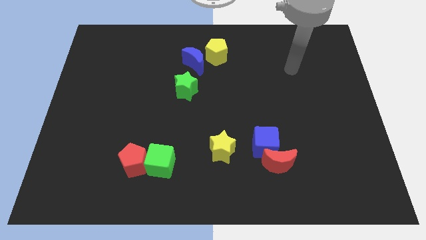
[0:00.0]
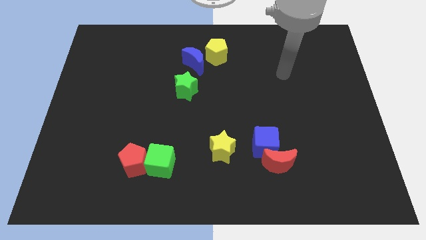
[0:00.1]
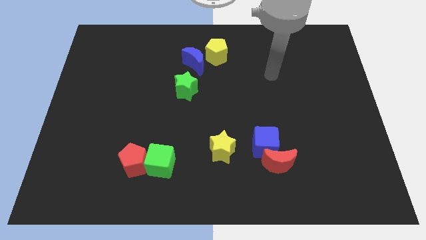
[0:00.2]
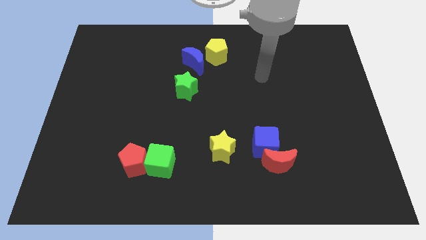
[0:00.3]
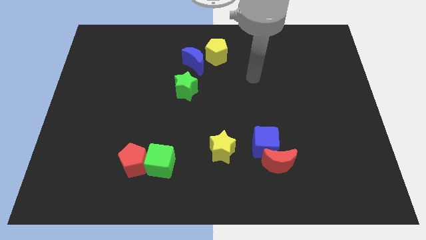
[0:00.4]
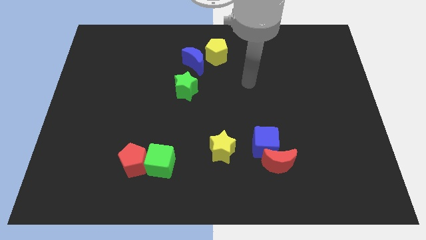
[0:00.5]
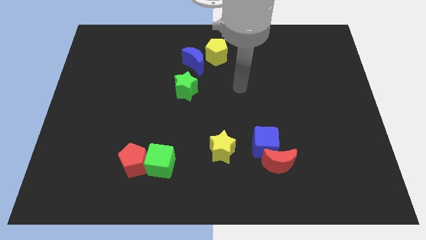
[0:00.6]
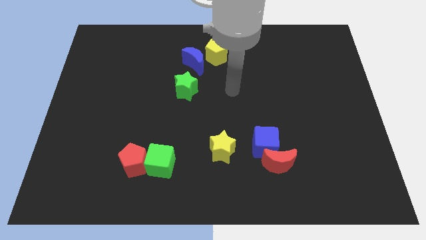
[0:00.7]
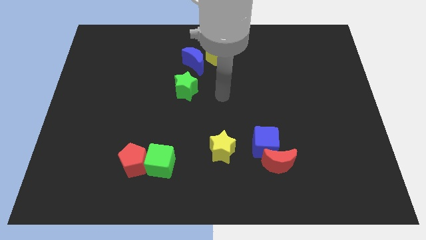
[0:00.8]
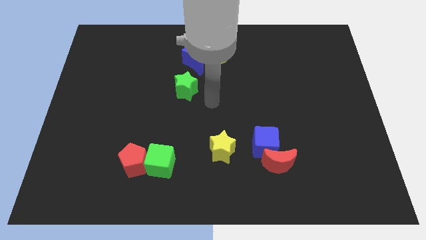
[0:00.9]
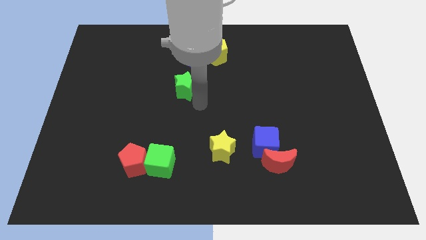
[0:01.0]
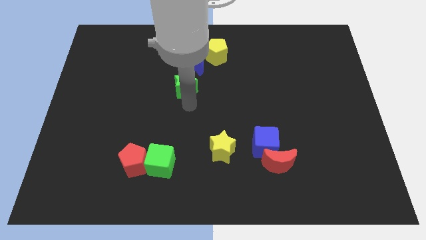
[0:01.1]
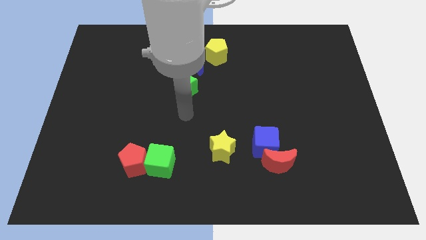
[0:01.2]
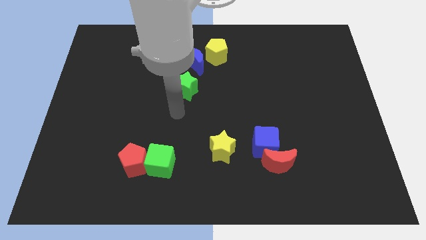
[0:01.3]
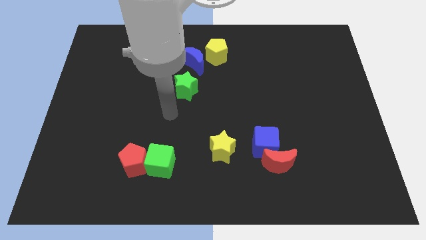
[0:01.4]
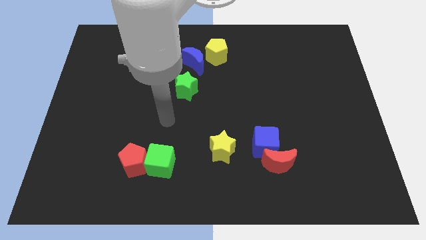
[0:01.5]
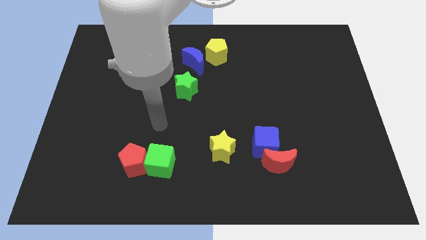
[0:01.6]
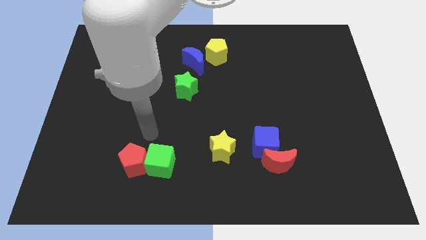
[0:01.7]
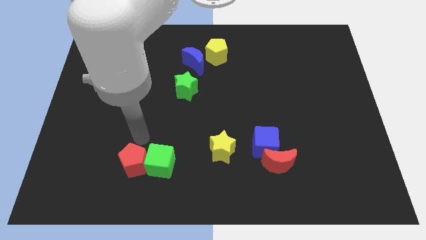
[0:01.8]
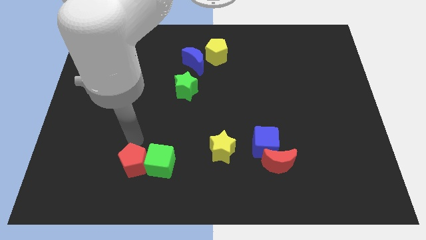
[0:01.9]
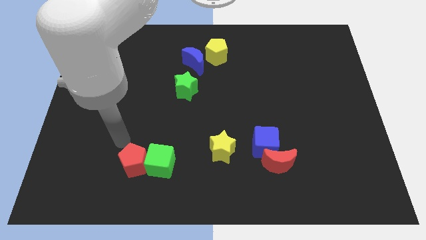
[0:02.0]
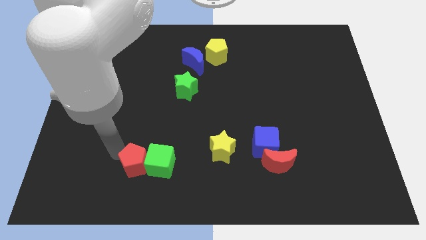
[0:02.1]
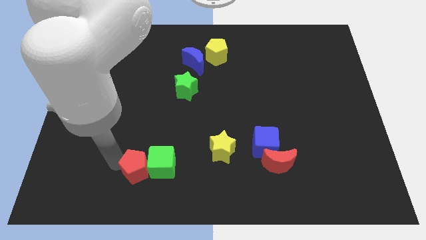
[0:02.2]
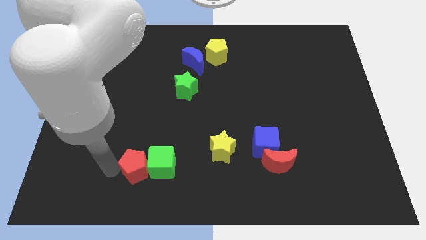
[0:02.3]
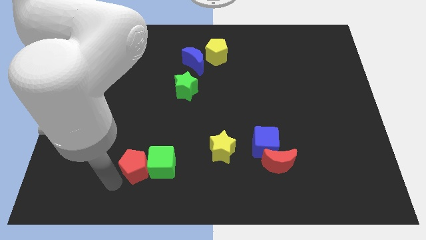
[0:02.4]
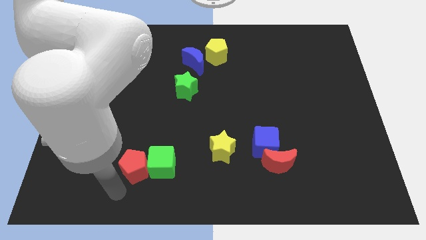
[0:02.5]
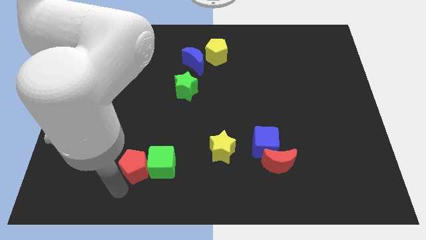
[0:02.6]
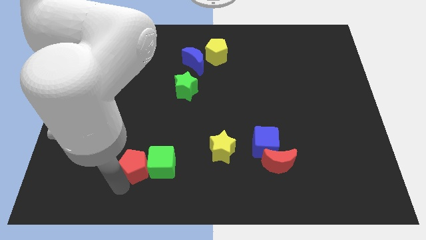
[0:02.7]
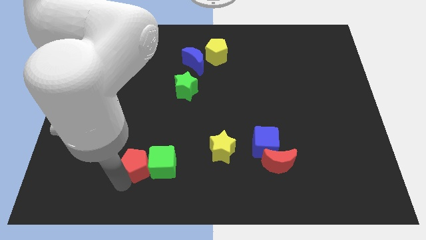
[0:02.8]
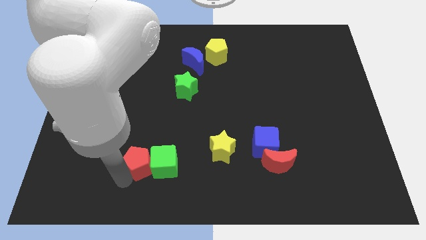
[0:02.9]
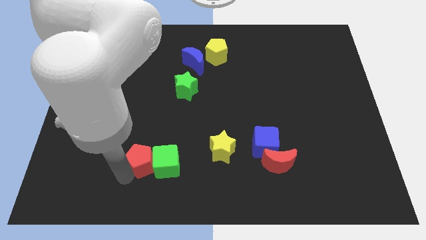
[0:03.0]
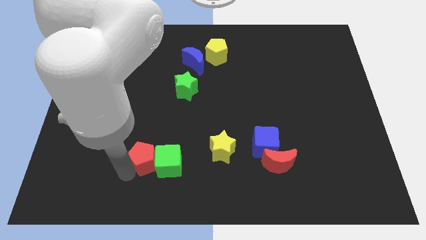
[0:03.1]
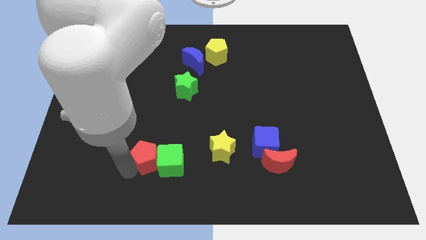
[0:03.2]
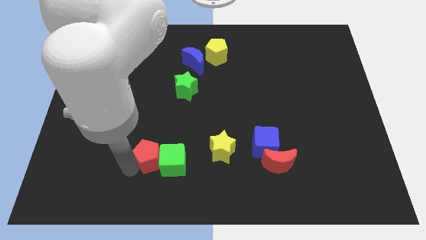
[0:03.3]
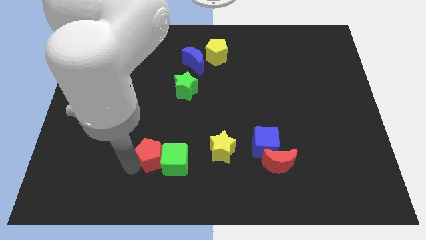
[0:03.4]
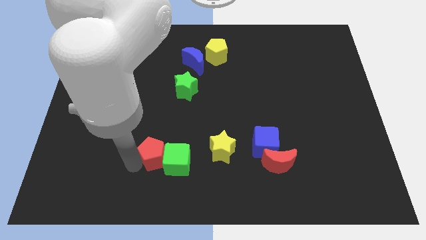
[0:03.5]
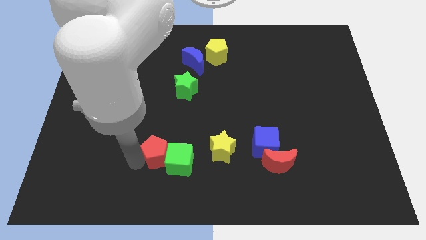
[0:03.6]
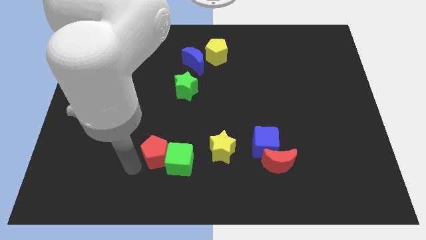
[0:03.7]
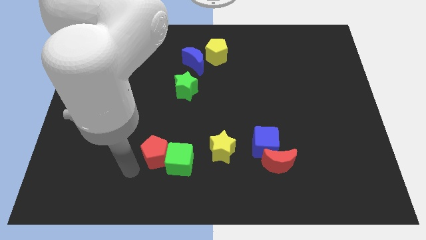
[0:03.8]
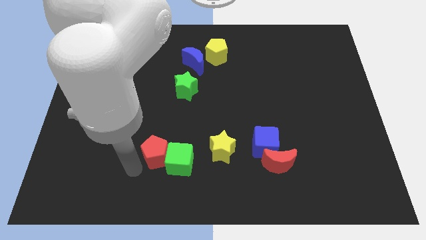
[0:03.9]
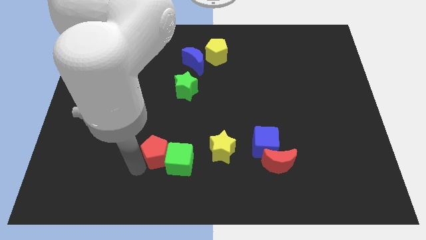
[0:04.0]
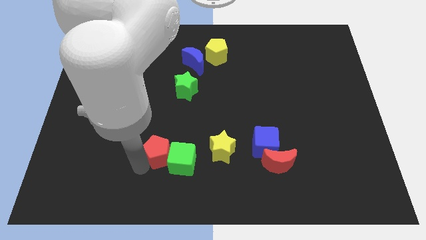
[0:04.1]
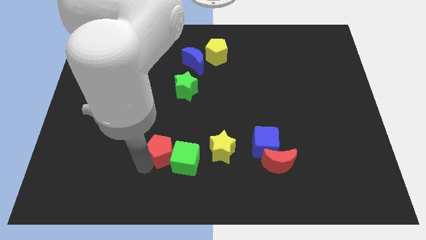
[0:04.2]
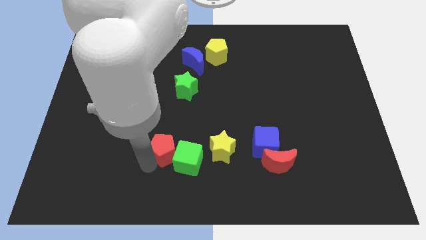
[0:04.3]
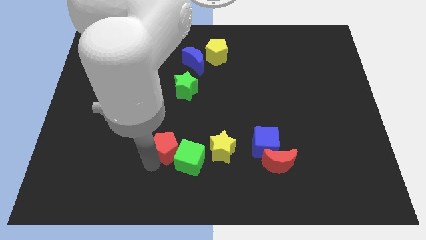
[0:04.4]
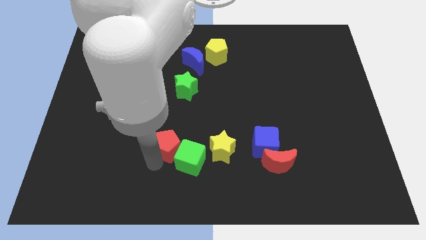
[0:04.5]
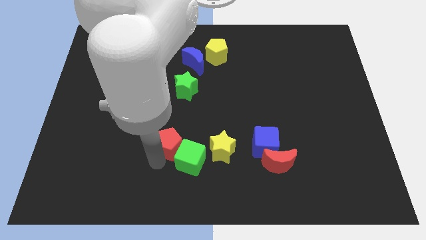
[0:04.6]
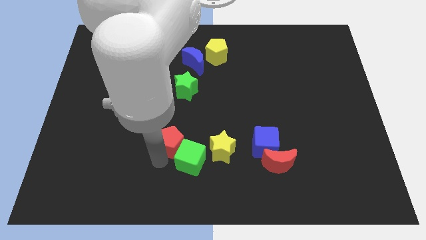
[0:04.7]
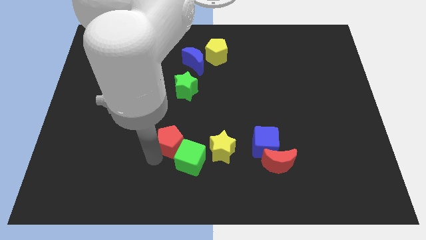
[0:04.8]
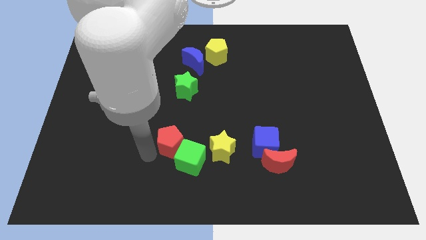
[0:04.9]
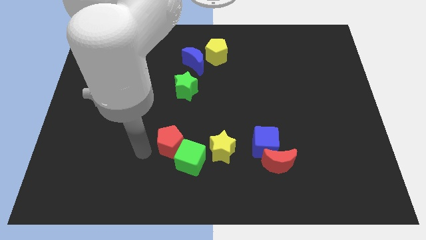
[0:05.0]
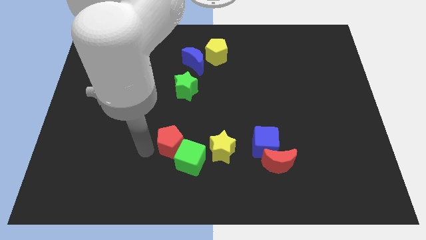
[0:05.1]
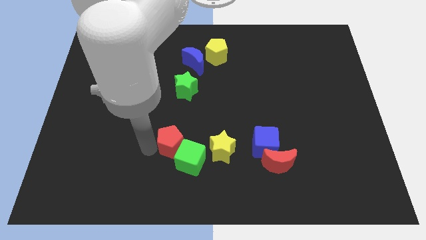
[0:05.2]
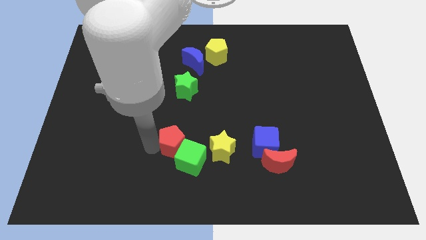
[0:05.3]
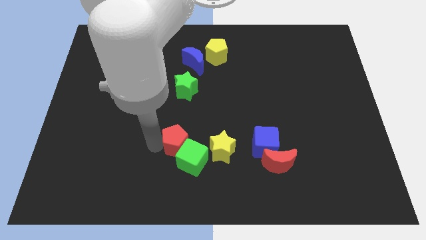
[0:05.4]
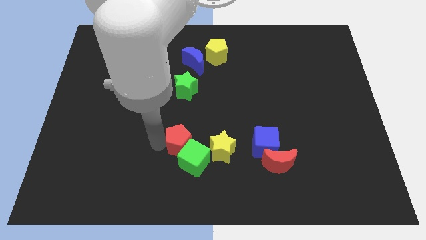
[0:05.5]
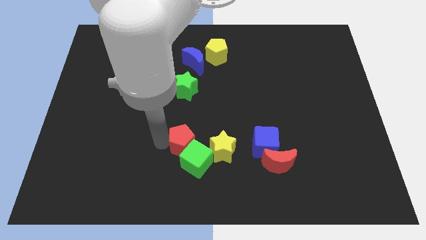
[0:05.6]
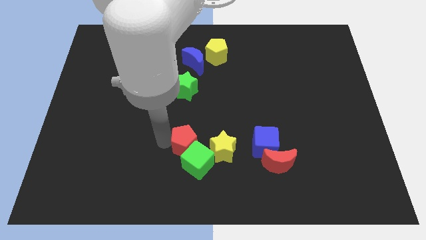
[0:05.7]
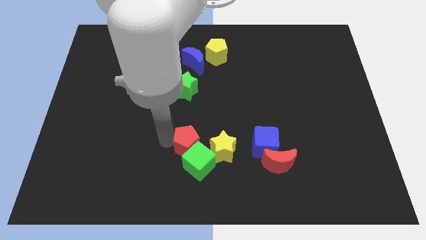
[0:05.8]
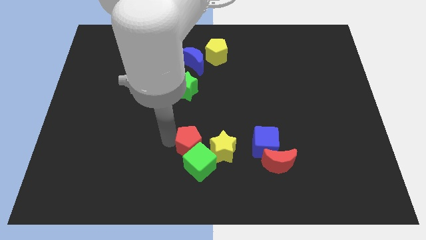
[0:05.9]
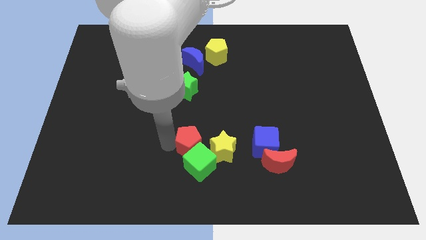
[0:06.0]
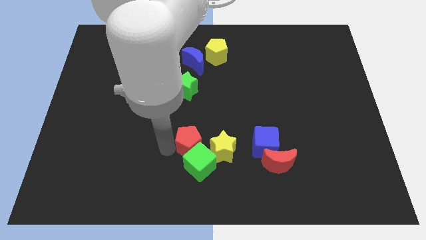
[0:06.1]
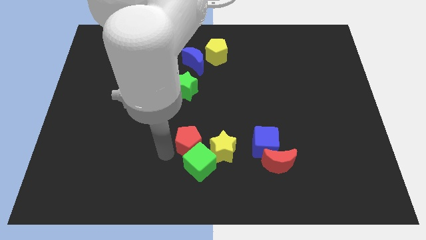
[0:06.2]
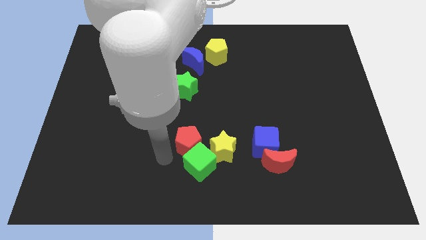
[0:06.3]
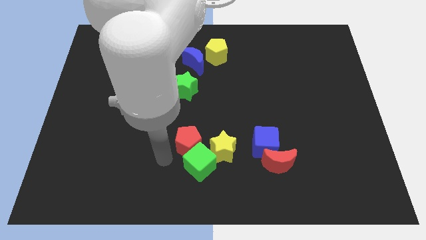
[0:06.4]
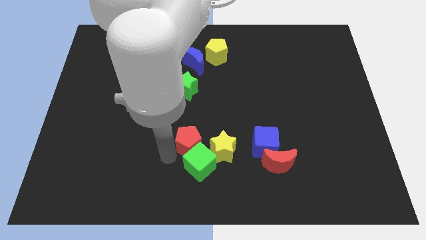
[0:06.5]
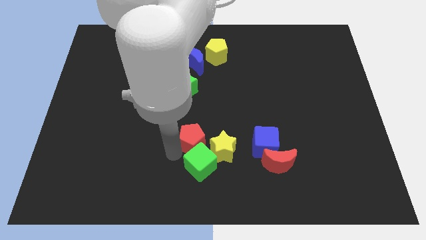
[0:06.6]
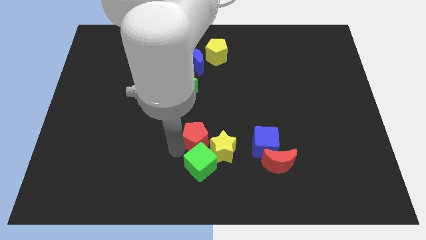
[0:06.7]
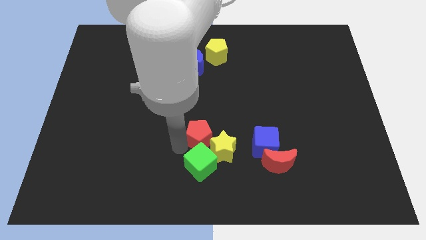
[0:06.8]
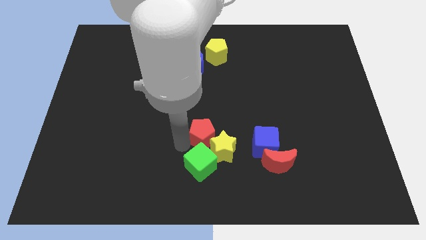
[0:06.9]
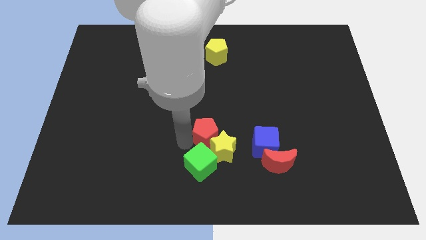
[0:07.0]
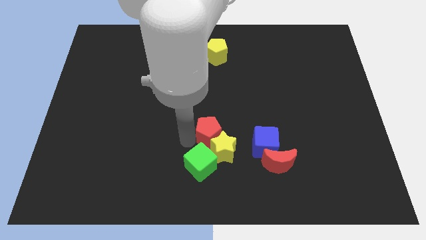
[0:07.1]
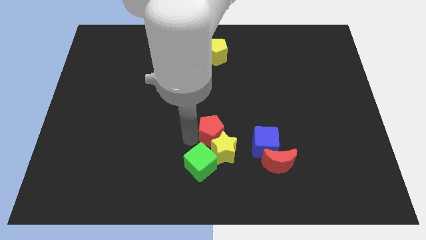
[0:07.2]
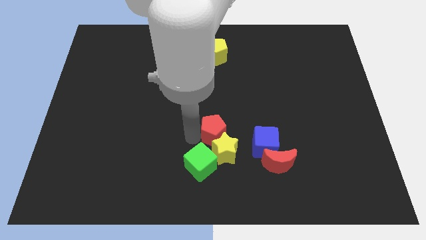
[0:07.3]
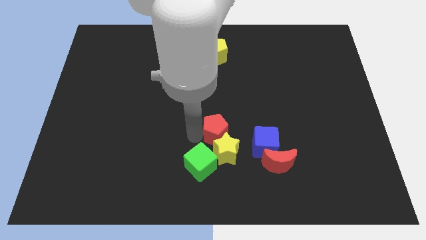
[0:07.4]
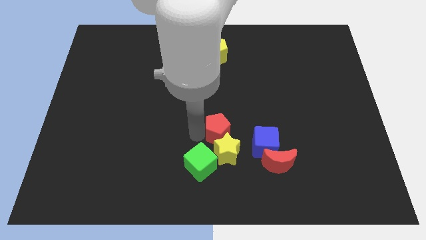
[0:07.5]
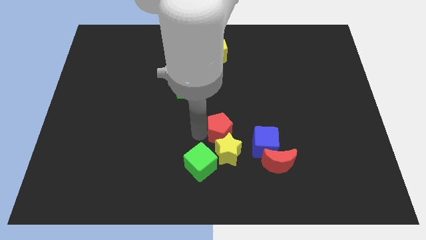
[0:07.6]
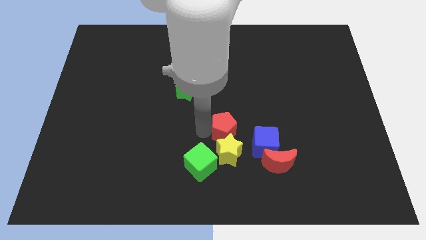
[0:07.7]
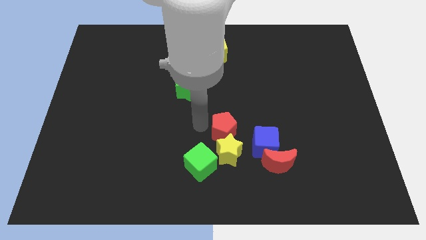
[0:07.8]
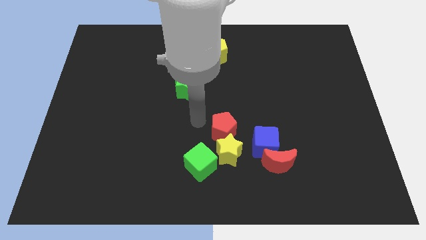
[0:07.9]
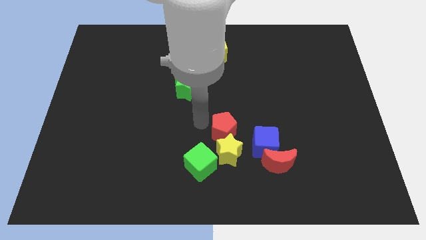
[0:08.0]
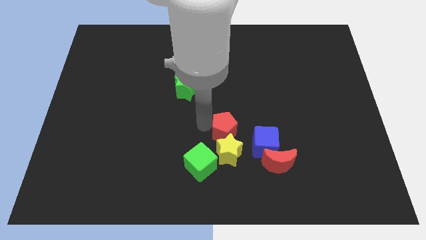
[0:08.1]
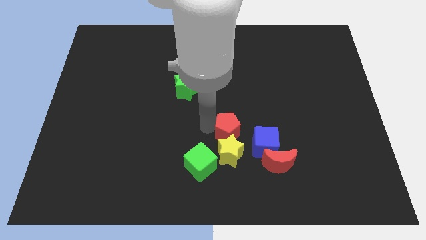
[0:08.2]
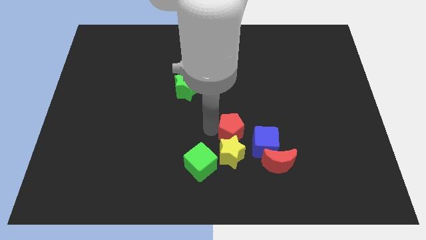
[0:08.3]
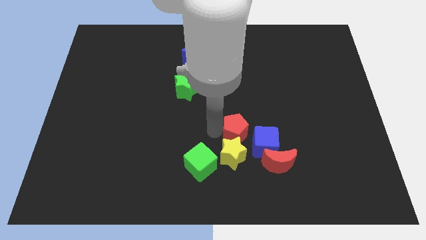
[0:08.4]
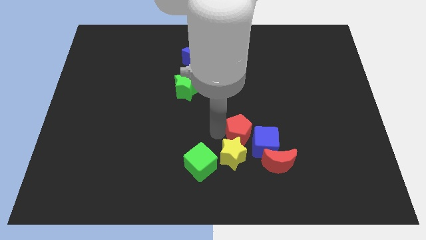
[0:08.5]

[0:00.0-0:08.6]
put the red pentagon close to the blue cube
